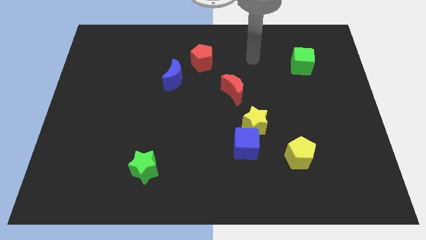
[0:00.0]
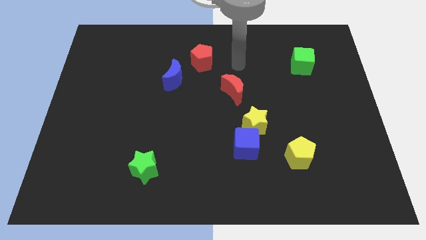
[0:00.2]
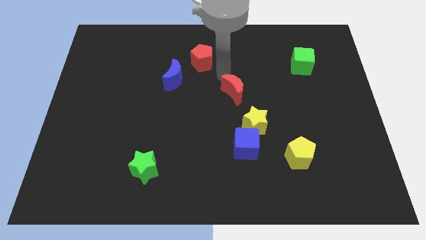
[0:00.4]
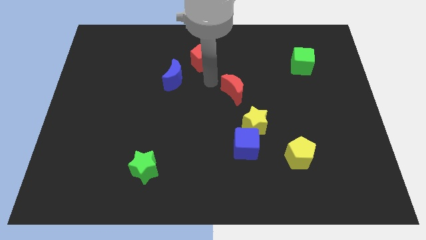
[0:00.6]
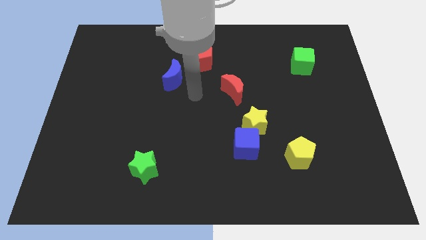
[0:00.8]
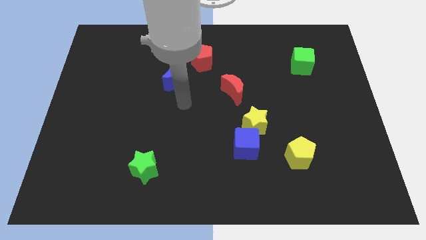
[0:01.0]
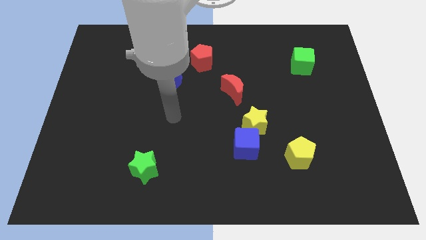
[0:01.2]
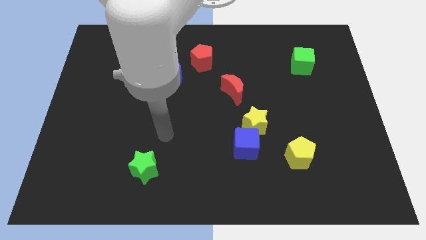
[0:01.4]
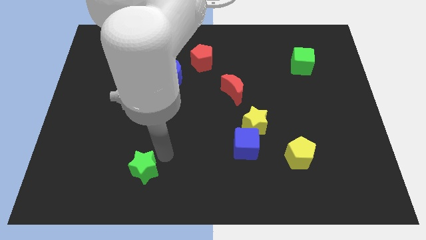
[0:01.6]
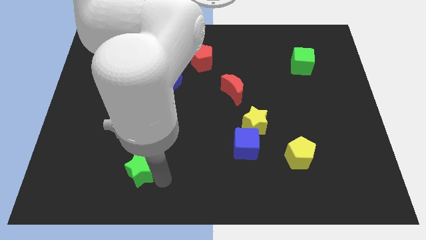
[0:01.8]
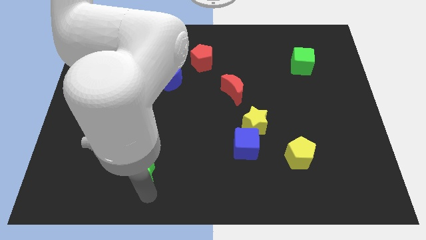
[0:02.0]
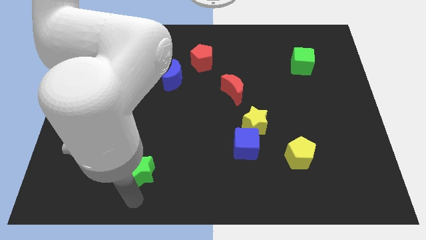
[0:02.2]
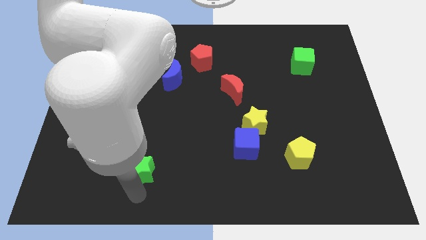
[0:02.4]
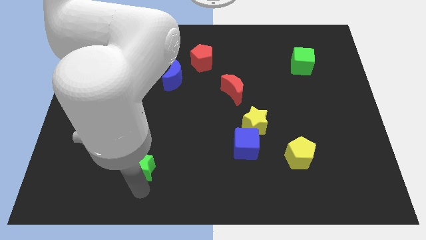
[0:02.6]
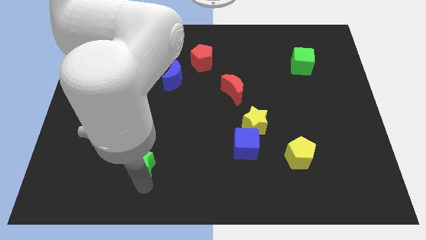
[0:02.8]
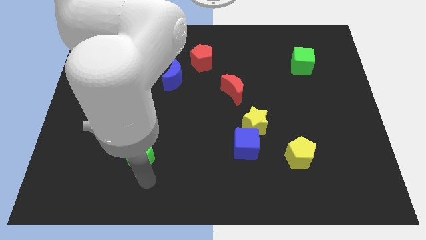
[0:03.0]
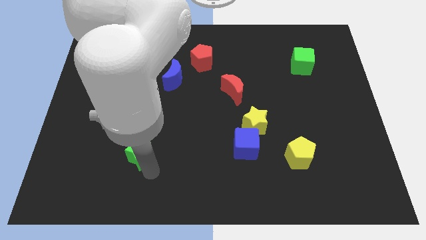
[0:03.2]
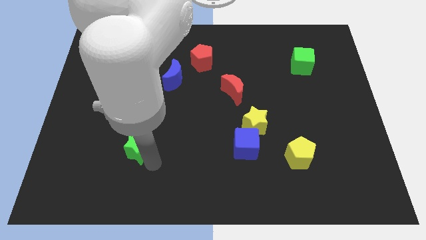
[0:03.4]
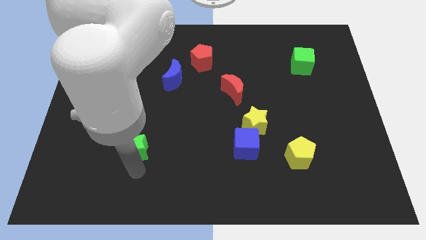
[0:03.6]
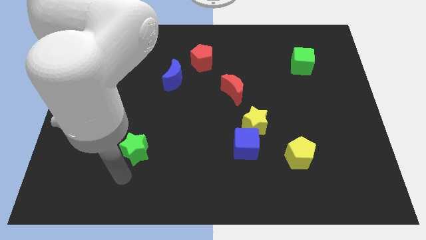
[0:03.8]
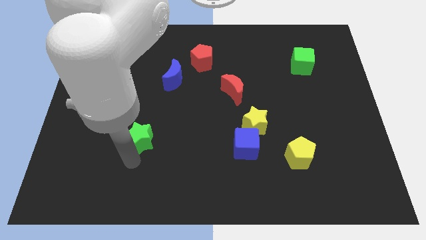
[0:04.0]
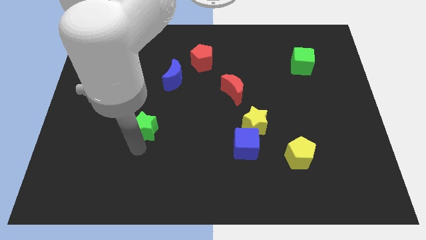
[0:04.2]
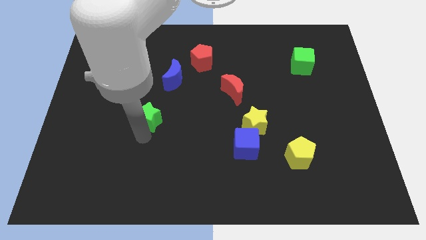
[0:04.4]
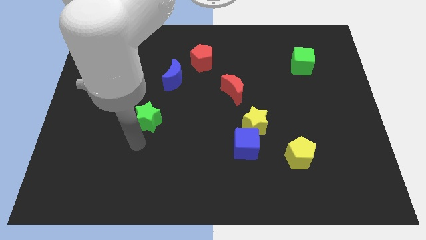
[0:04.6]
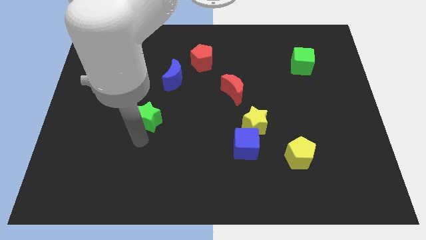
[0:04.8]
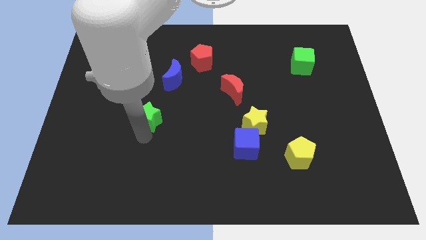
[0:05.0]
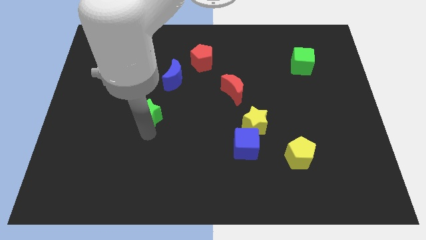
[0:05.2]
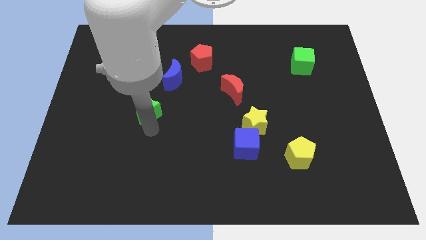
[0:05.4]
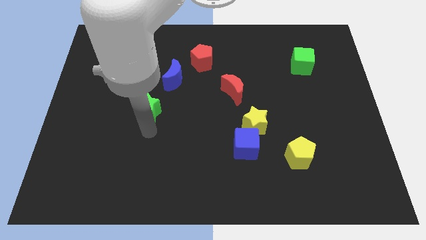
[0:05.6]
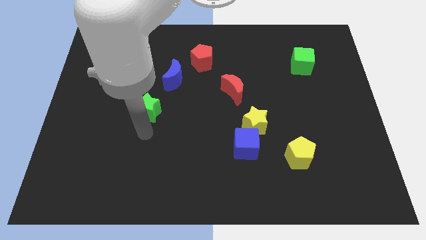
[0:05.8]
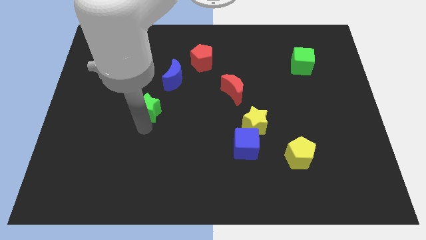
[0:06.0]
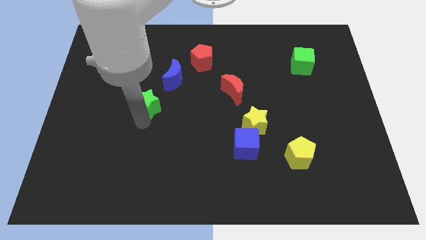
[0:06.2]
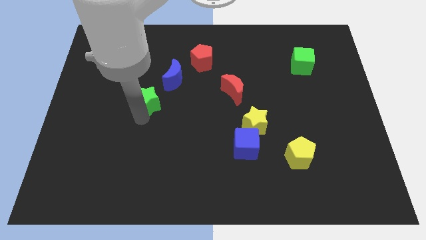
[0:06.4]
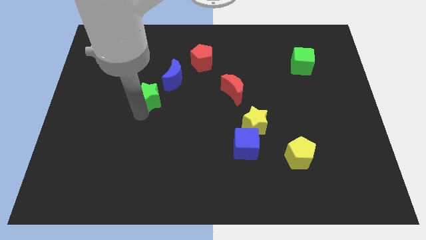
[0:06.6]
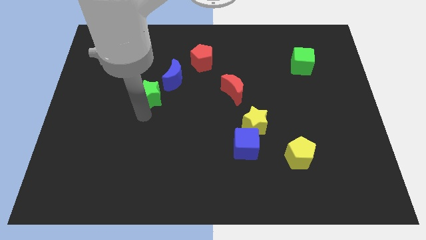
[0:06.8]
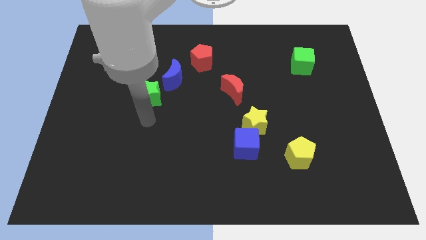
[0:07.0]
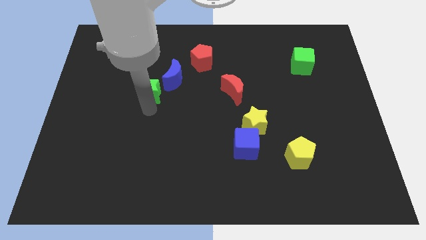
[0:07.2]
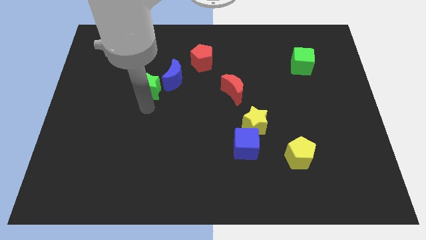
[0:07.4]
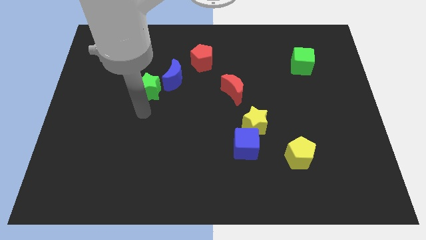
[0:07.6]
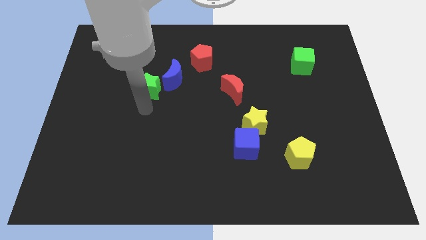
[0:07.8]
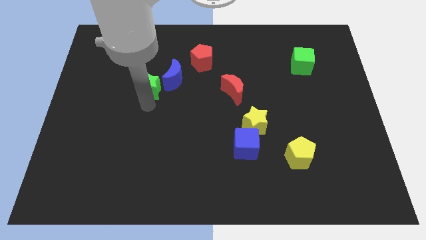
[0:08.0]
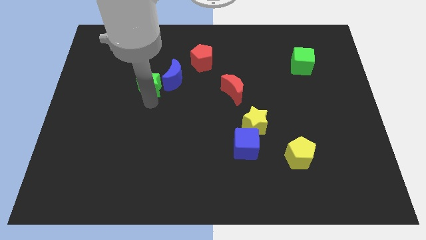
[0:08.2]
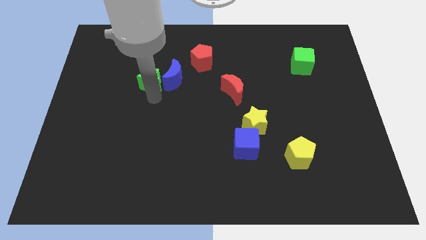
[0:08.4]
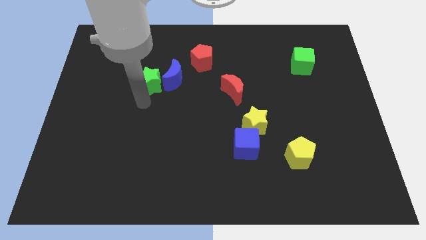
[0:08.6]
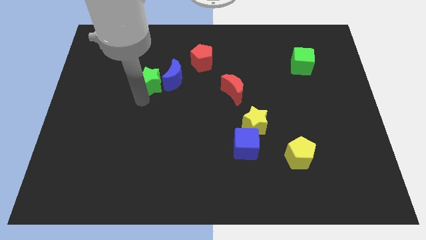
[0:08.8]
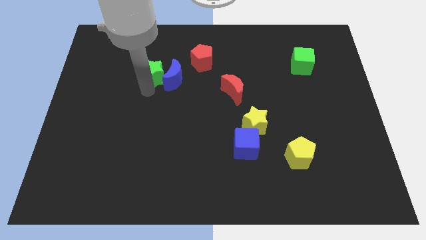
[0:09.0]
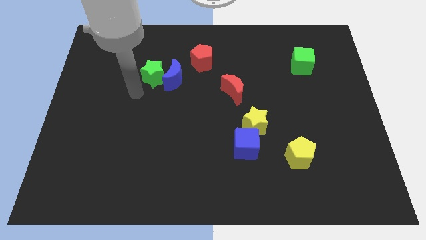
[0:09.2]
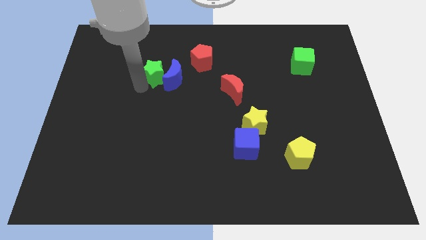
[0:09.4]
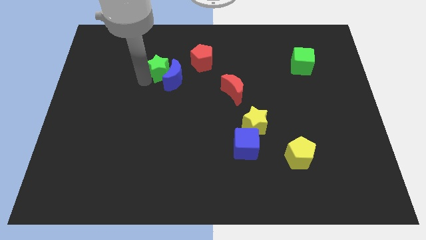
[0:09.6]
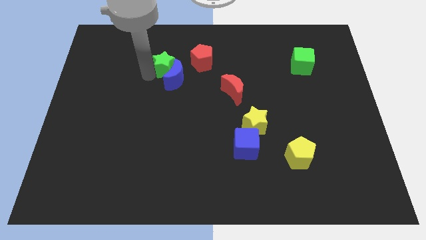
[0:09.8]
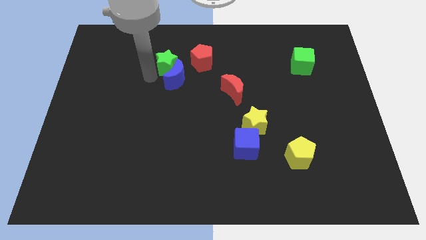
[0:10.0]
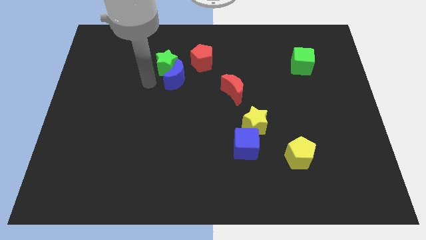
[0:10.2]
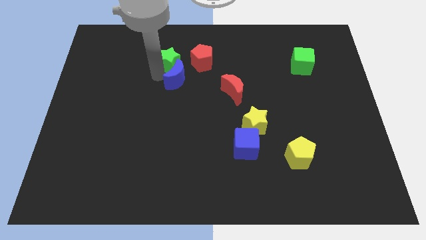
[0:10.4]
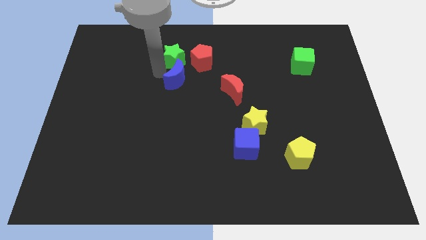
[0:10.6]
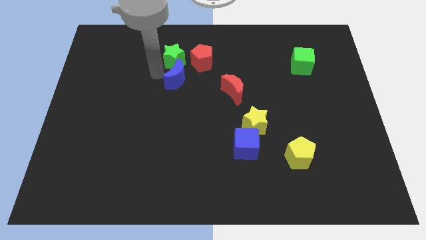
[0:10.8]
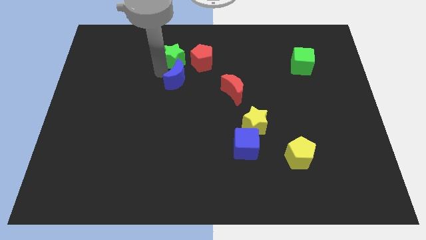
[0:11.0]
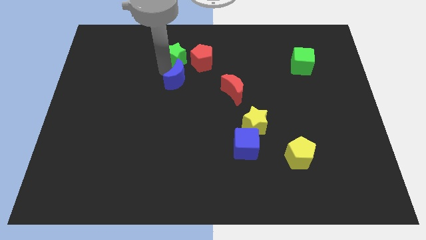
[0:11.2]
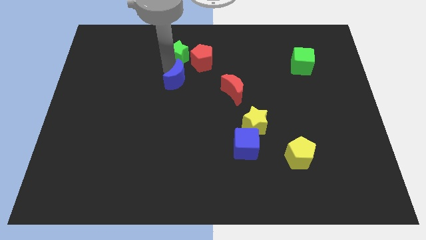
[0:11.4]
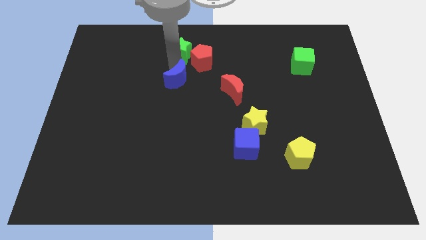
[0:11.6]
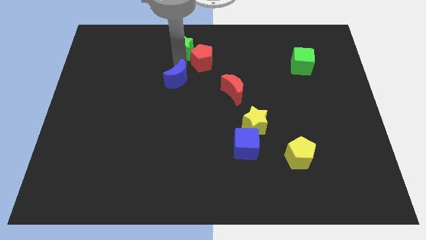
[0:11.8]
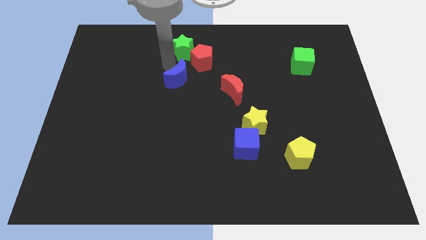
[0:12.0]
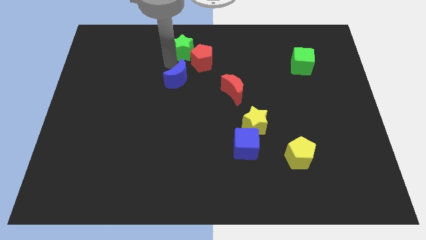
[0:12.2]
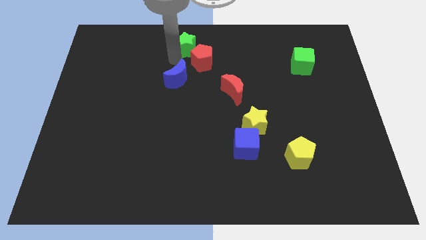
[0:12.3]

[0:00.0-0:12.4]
move the green star to the top
